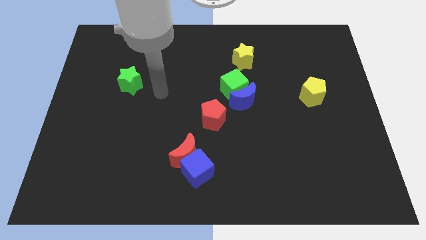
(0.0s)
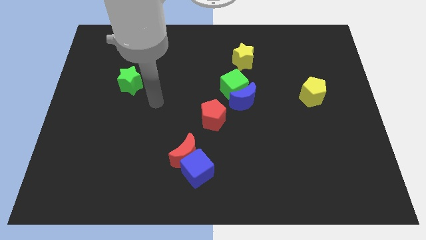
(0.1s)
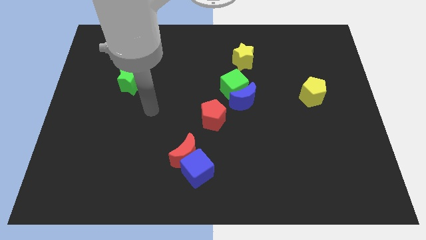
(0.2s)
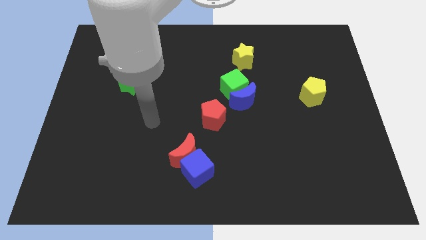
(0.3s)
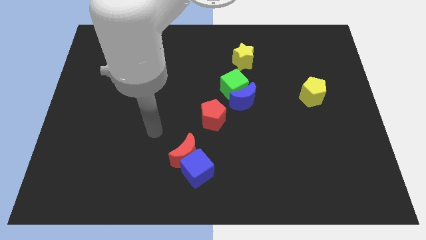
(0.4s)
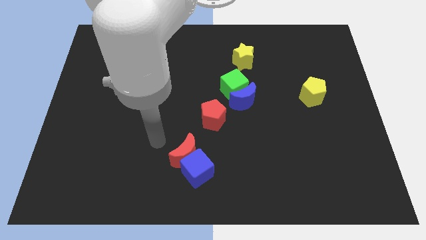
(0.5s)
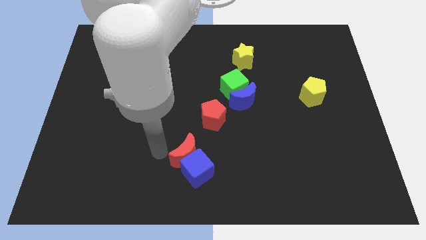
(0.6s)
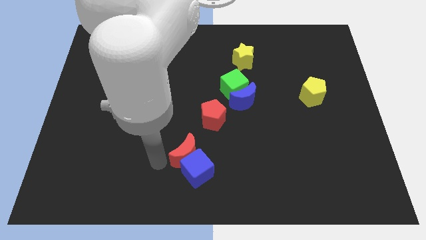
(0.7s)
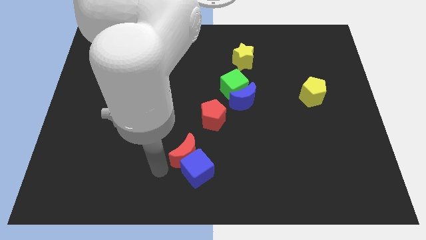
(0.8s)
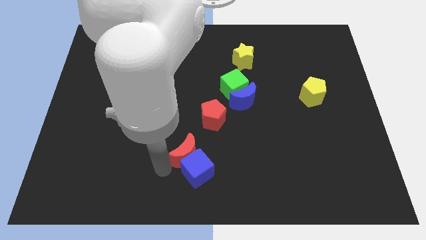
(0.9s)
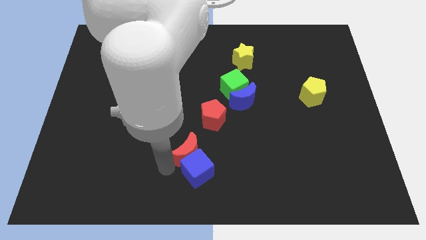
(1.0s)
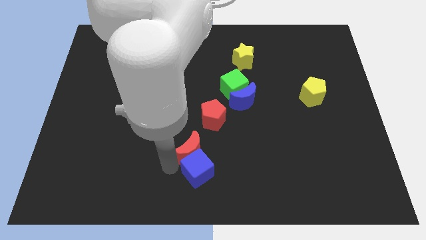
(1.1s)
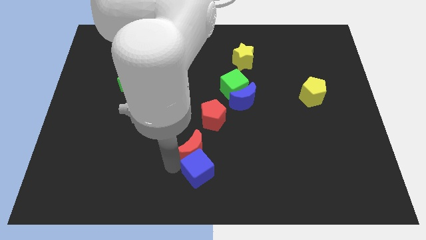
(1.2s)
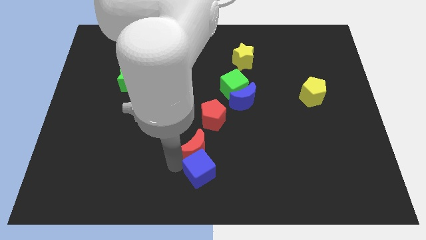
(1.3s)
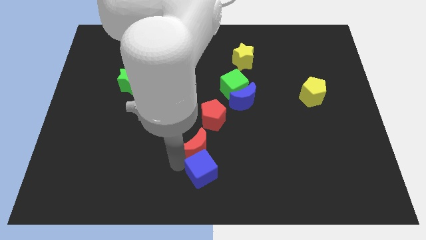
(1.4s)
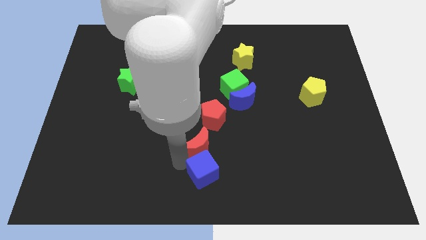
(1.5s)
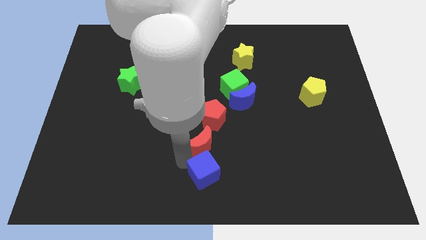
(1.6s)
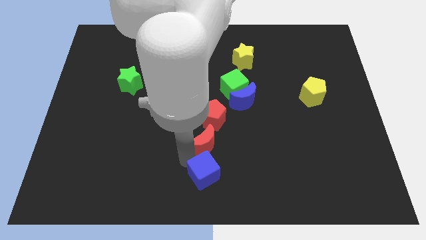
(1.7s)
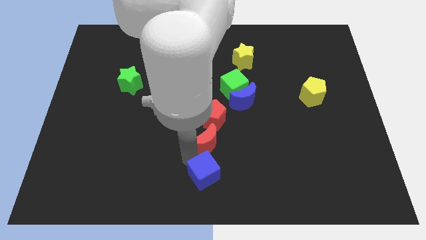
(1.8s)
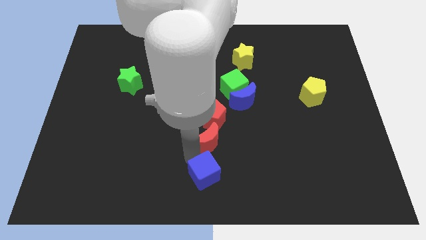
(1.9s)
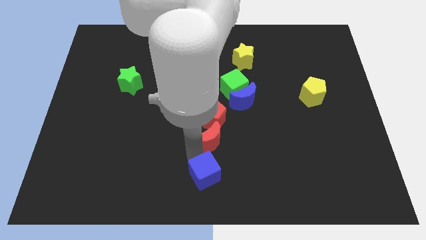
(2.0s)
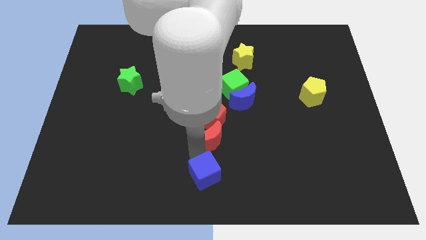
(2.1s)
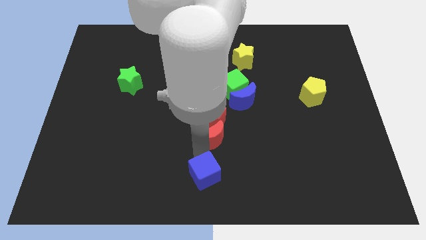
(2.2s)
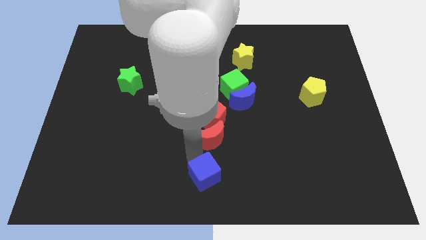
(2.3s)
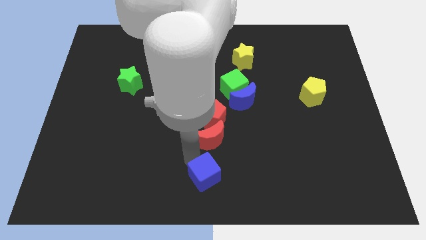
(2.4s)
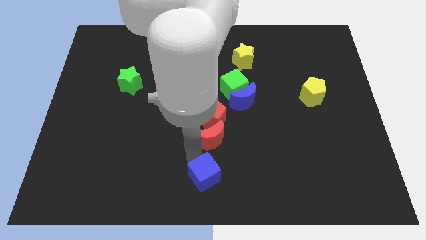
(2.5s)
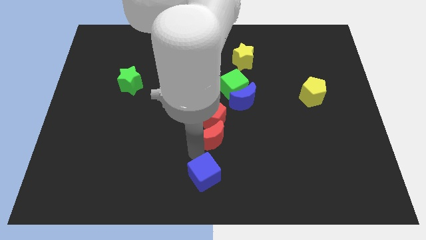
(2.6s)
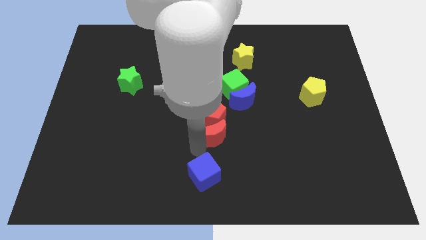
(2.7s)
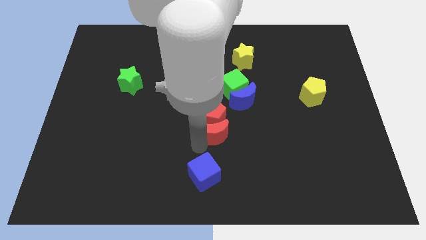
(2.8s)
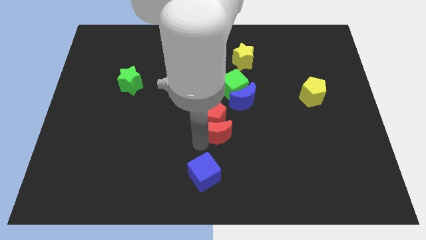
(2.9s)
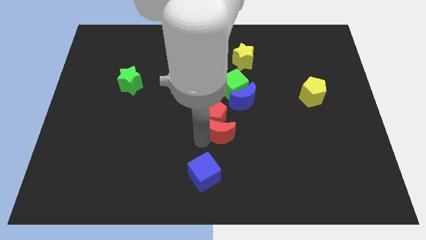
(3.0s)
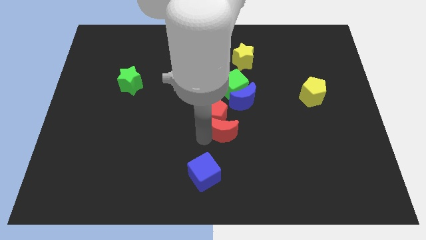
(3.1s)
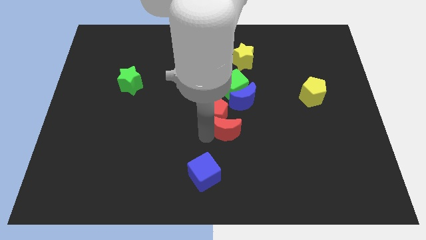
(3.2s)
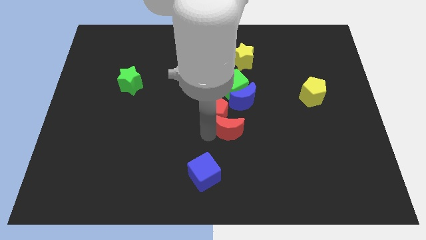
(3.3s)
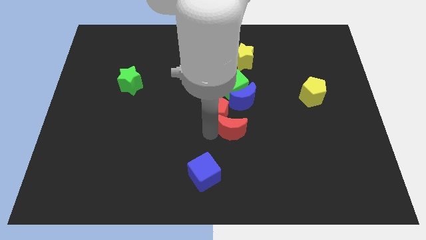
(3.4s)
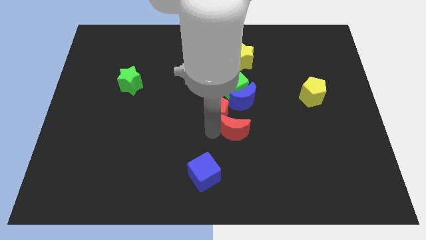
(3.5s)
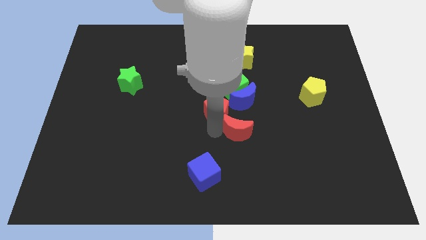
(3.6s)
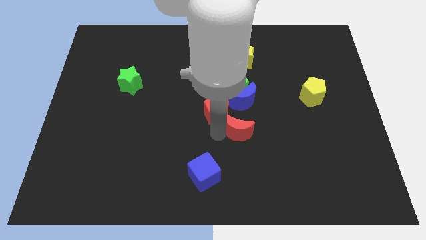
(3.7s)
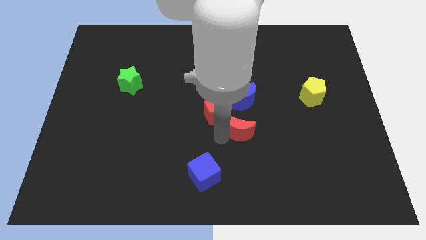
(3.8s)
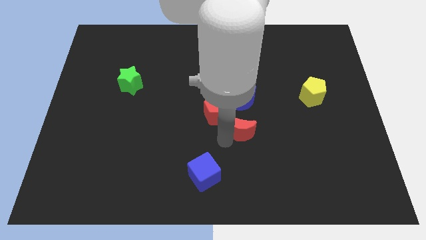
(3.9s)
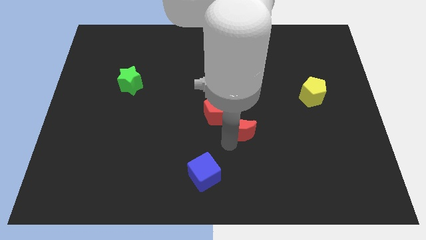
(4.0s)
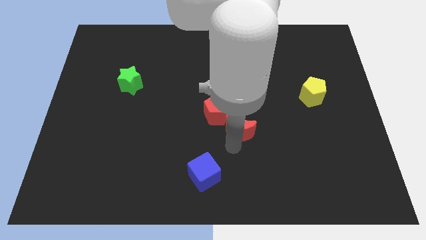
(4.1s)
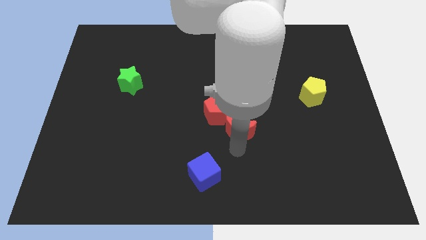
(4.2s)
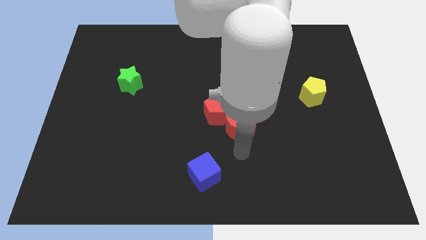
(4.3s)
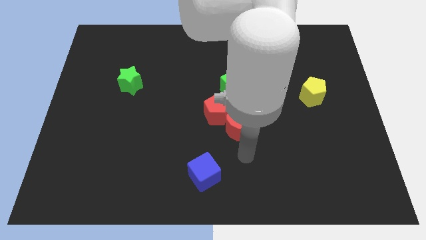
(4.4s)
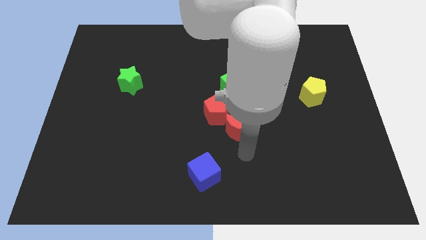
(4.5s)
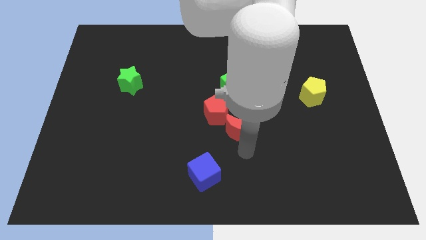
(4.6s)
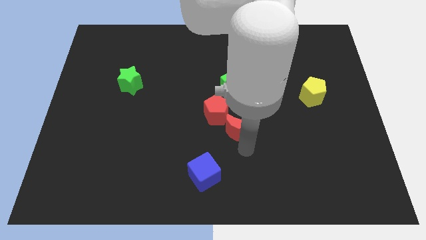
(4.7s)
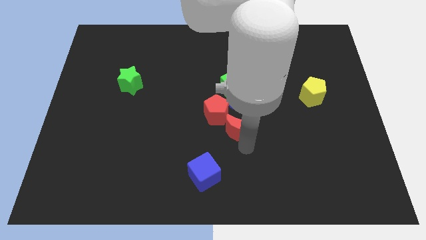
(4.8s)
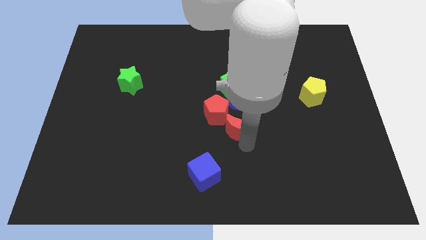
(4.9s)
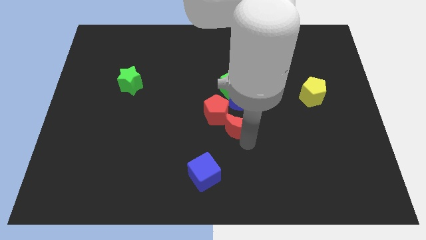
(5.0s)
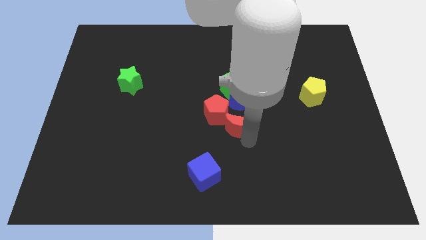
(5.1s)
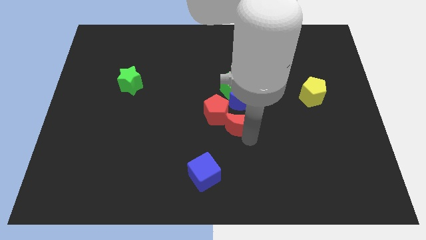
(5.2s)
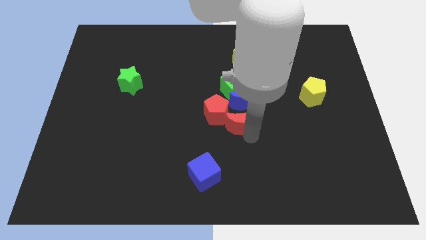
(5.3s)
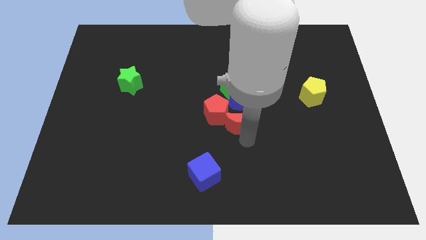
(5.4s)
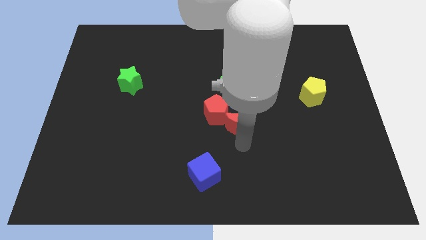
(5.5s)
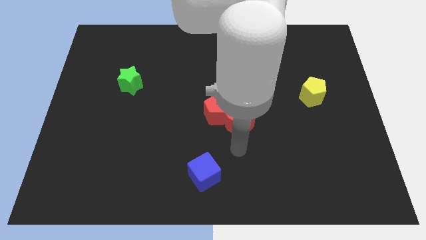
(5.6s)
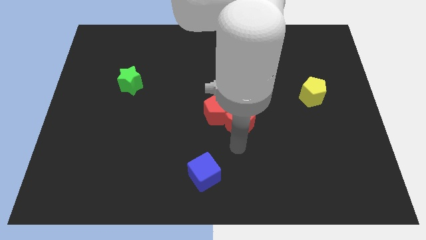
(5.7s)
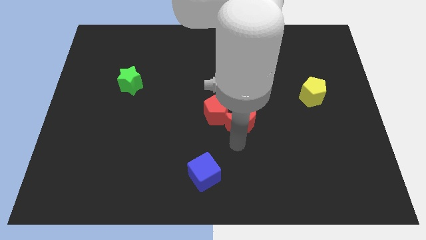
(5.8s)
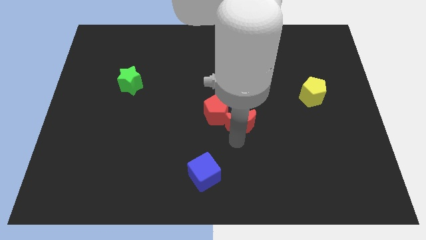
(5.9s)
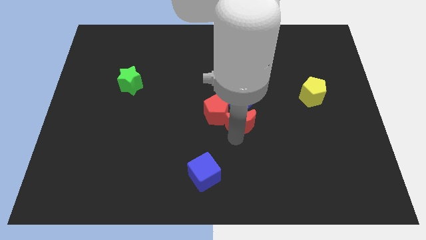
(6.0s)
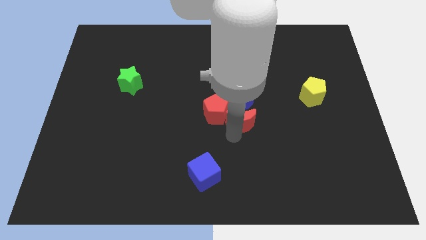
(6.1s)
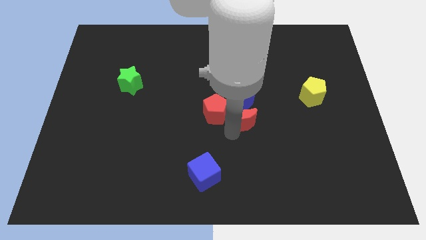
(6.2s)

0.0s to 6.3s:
push the red moon to the blue moon

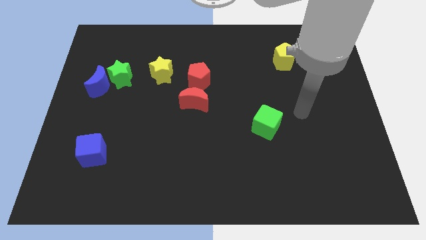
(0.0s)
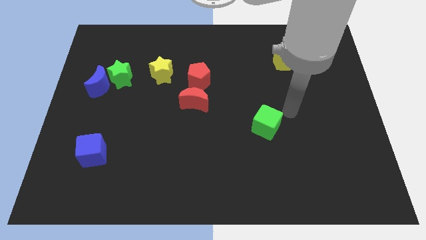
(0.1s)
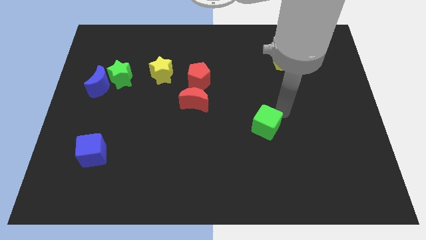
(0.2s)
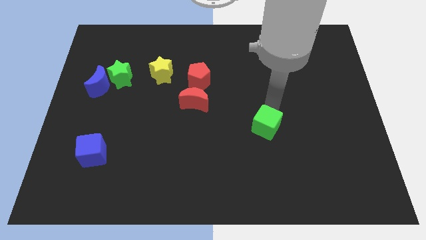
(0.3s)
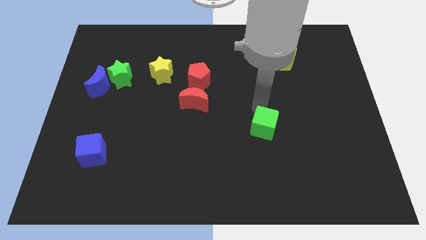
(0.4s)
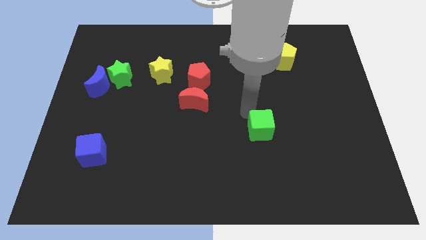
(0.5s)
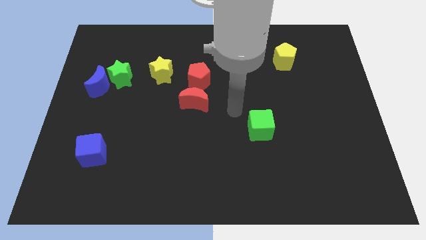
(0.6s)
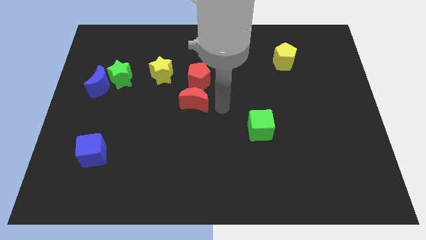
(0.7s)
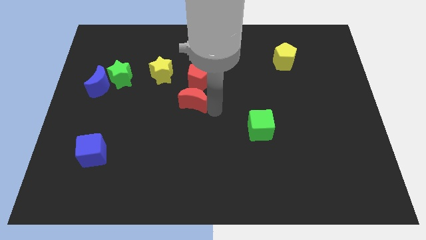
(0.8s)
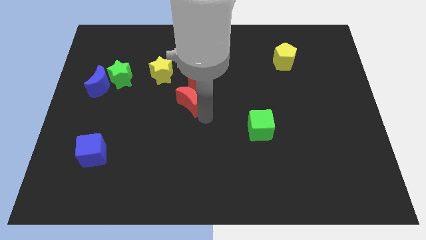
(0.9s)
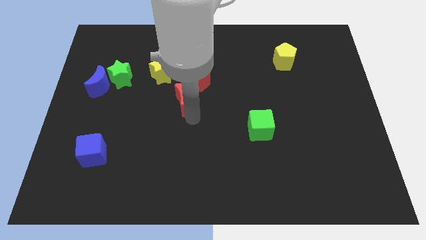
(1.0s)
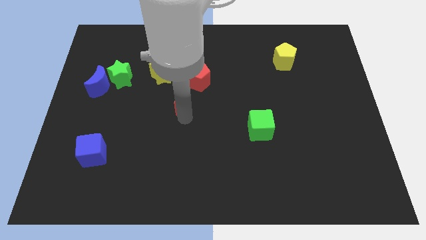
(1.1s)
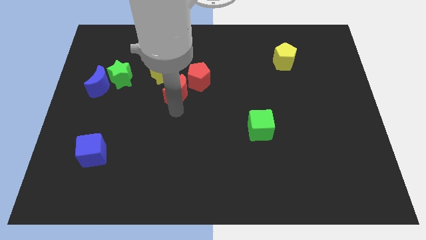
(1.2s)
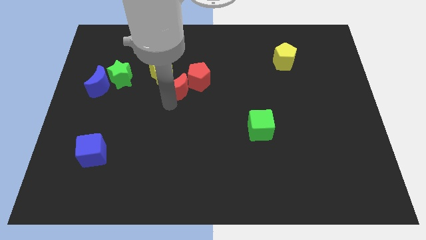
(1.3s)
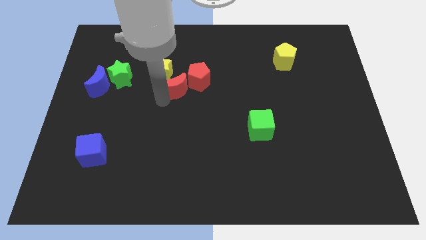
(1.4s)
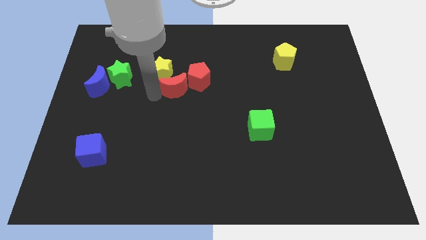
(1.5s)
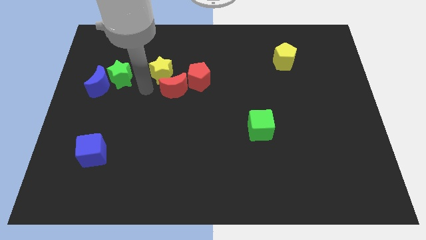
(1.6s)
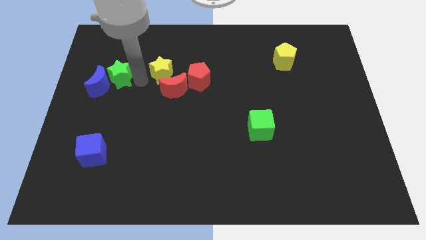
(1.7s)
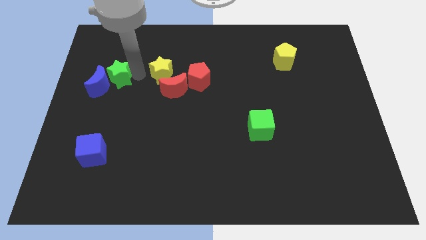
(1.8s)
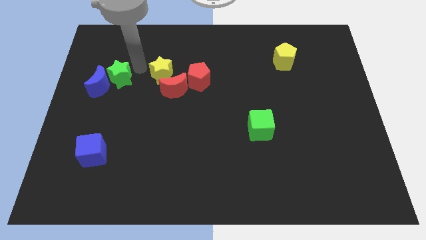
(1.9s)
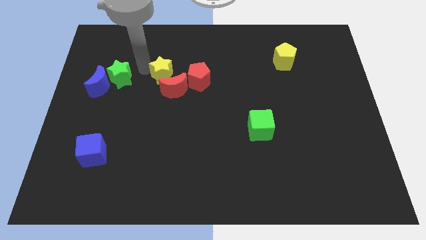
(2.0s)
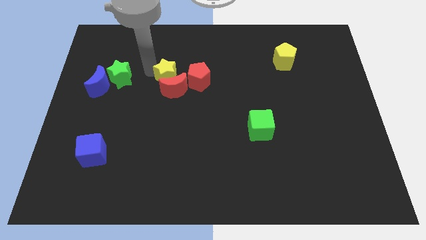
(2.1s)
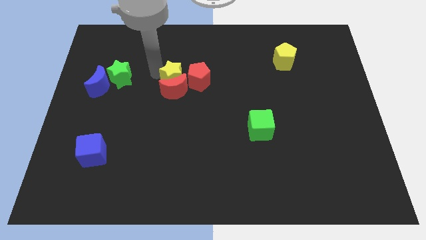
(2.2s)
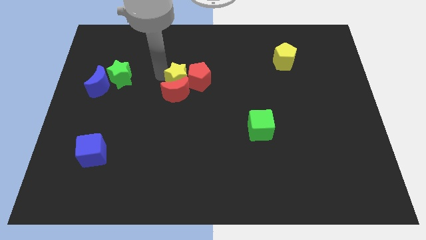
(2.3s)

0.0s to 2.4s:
push the yellow star next to the red pentagon
